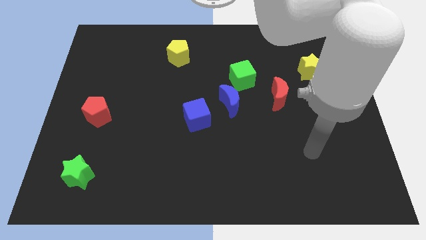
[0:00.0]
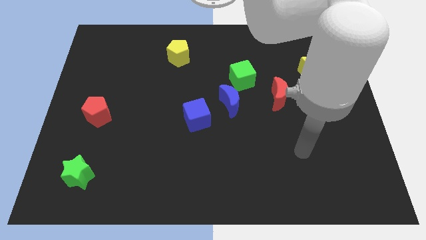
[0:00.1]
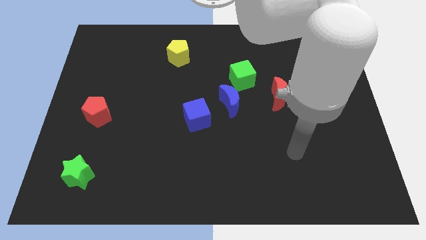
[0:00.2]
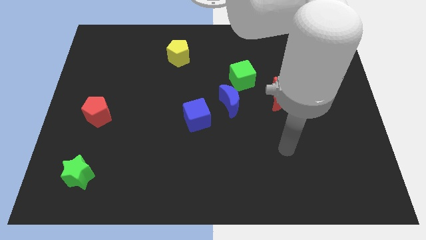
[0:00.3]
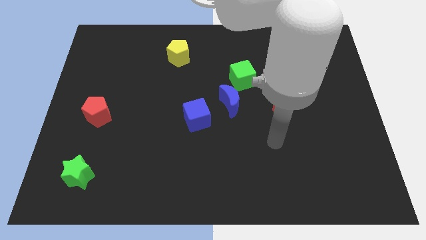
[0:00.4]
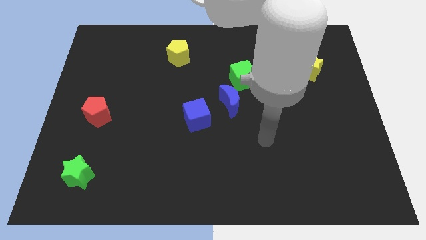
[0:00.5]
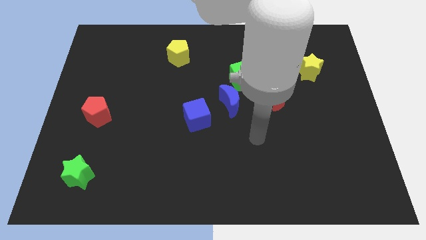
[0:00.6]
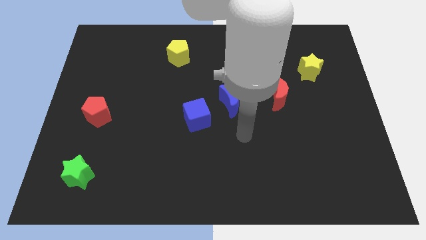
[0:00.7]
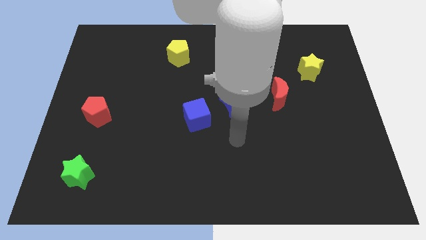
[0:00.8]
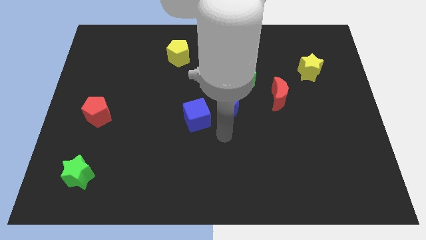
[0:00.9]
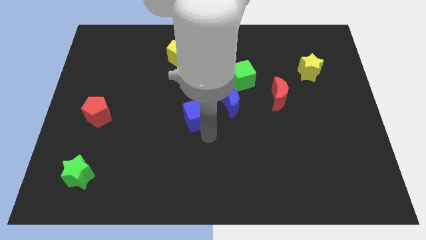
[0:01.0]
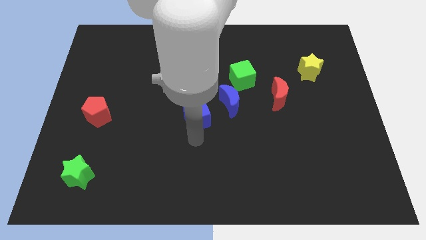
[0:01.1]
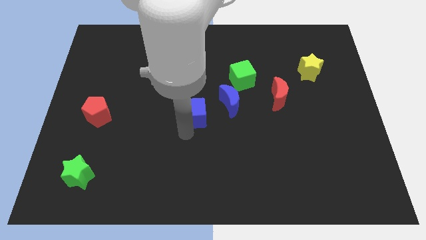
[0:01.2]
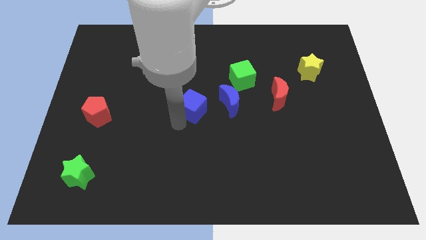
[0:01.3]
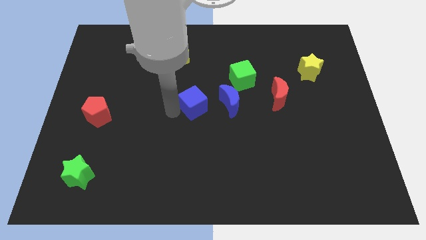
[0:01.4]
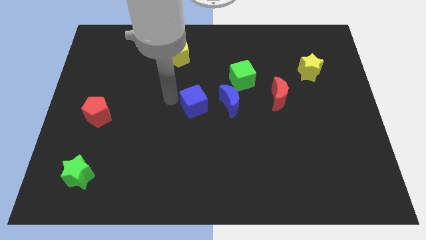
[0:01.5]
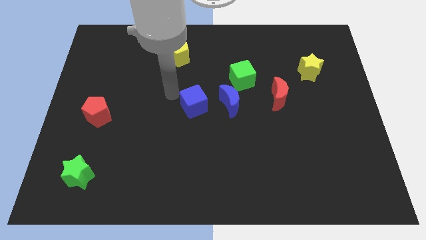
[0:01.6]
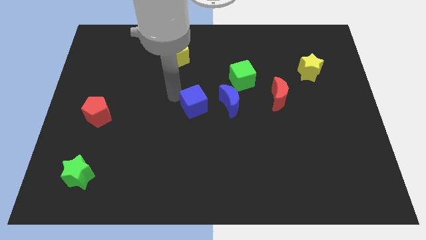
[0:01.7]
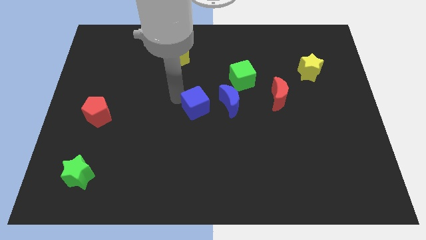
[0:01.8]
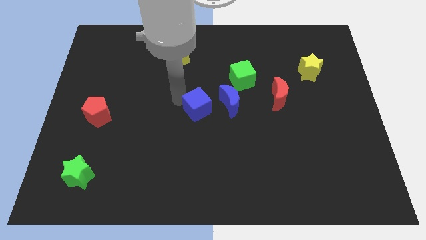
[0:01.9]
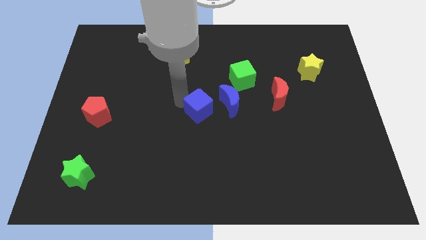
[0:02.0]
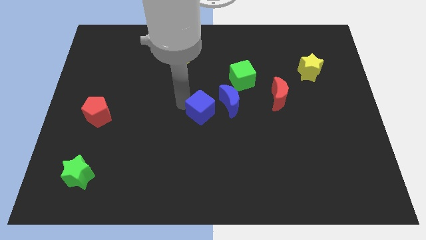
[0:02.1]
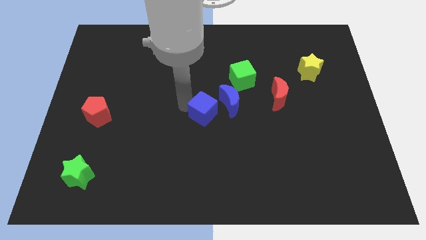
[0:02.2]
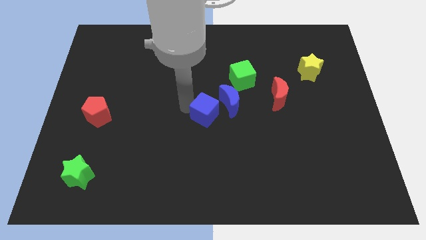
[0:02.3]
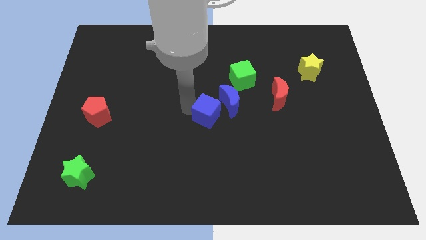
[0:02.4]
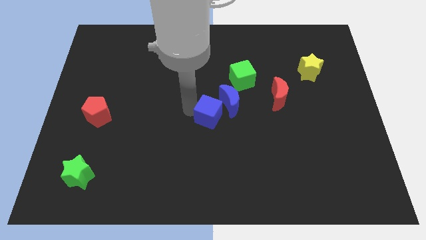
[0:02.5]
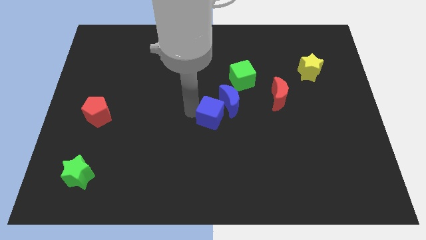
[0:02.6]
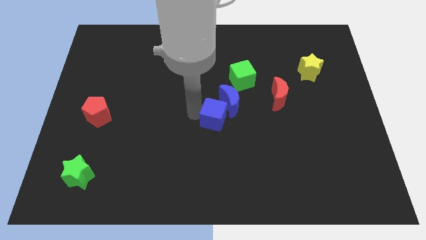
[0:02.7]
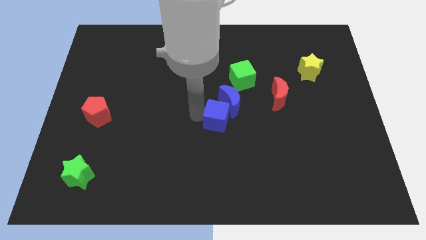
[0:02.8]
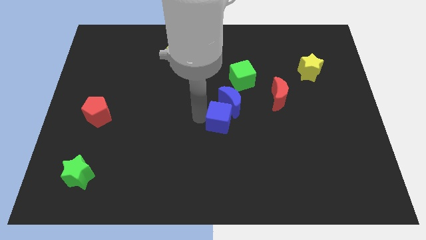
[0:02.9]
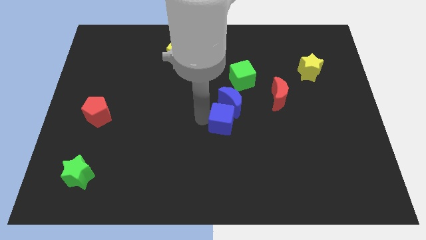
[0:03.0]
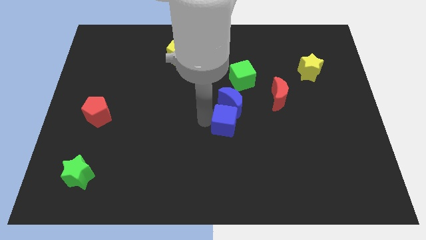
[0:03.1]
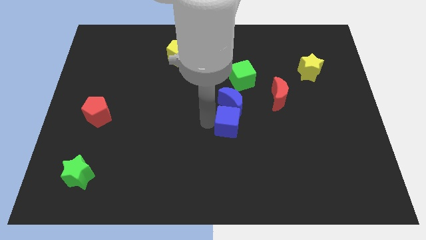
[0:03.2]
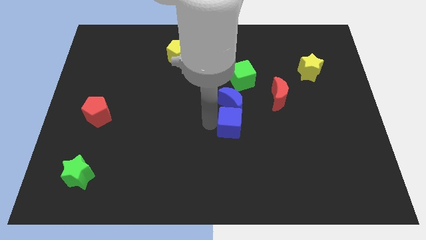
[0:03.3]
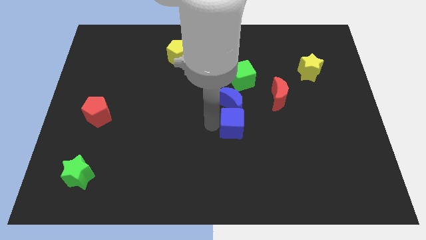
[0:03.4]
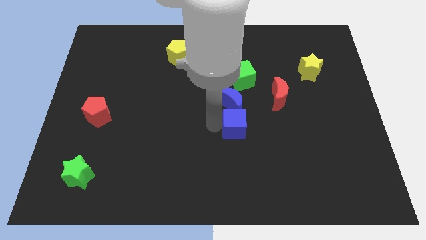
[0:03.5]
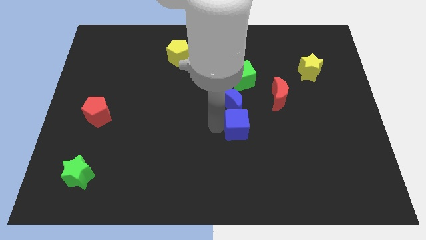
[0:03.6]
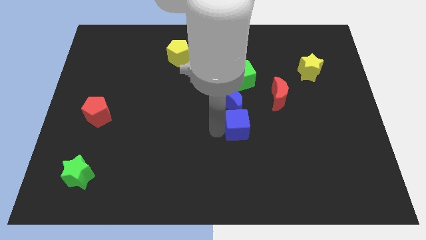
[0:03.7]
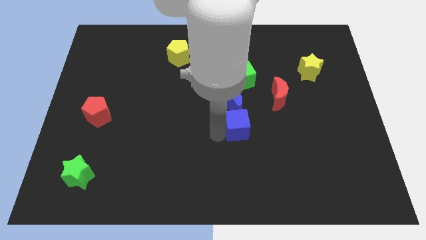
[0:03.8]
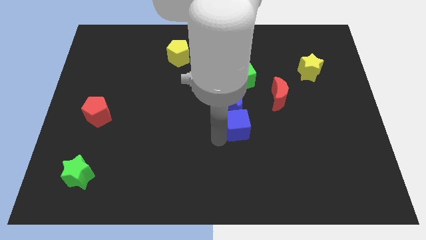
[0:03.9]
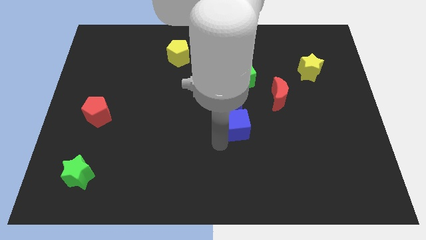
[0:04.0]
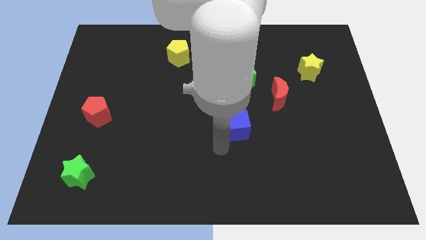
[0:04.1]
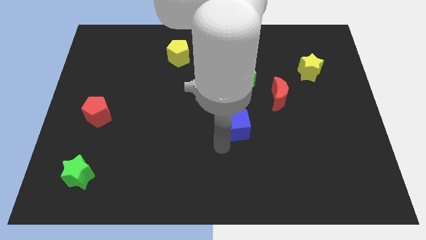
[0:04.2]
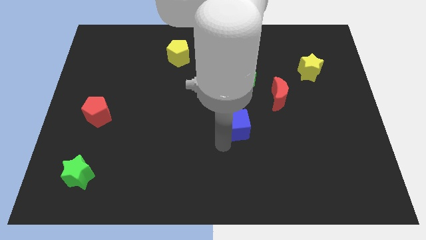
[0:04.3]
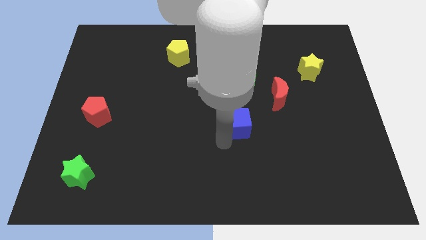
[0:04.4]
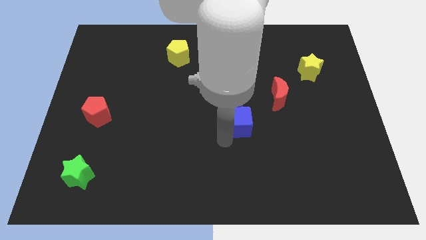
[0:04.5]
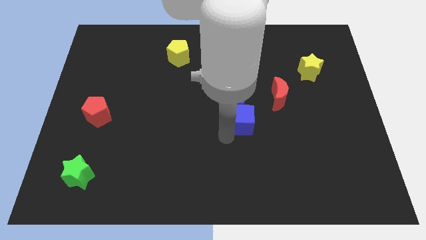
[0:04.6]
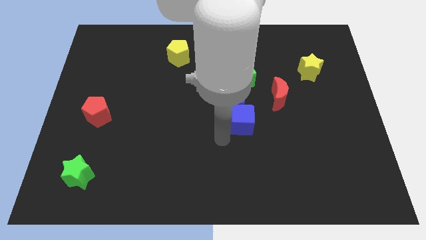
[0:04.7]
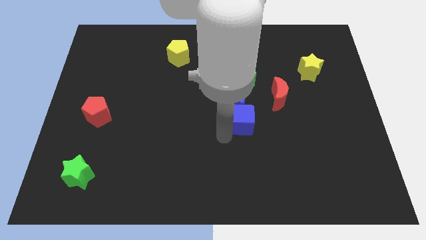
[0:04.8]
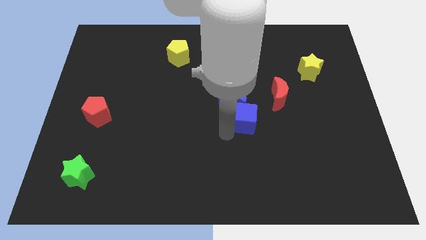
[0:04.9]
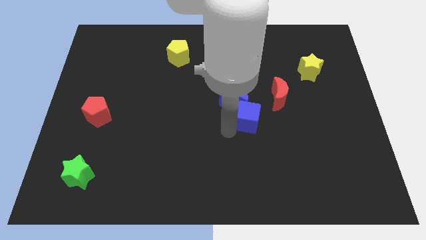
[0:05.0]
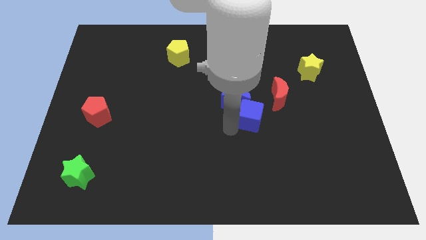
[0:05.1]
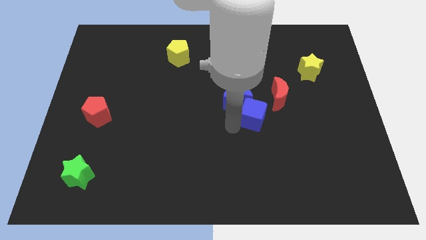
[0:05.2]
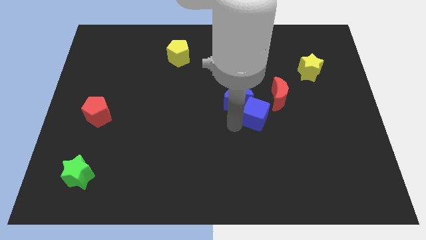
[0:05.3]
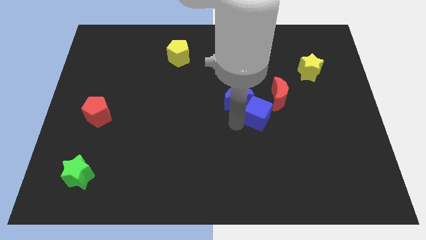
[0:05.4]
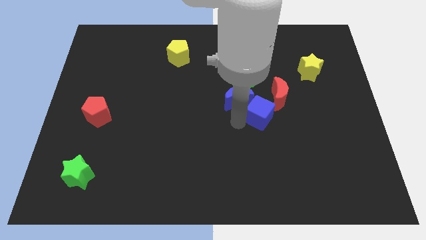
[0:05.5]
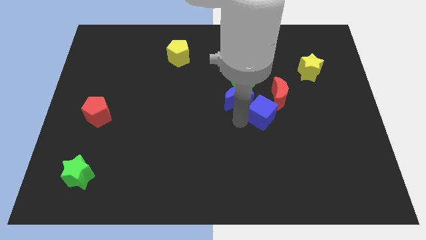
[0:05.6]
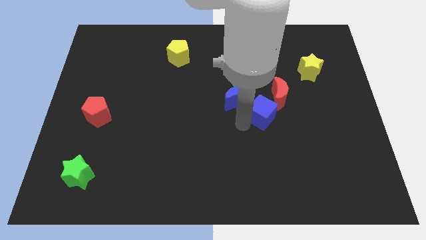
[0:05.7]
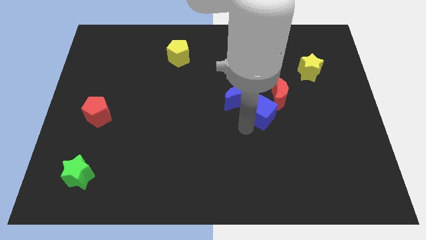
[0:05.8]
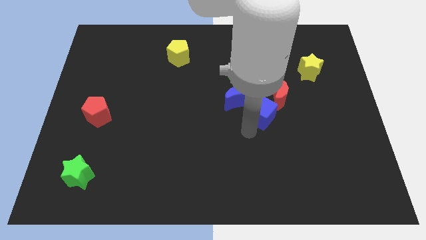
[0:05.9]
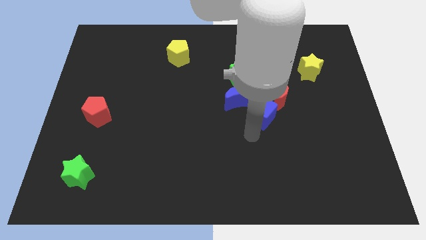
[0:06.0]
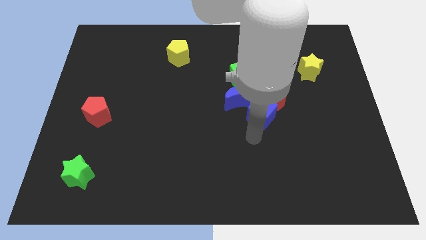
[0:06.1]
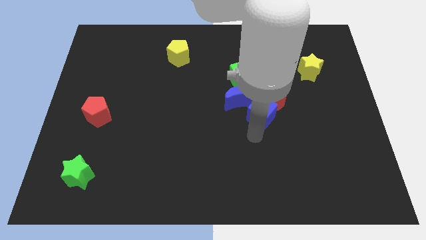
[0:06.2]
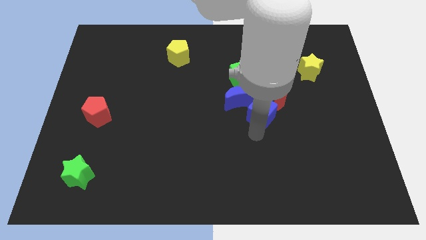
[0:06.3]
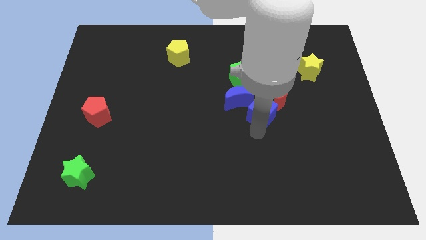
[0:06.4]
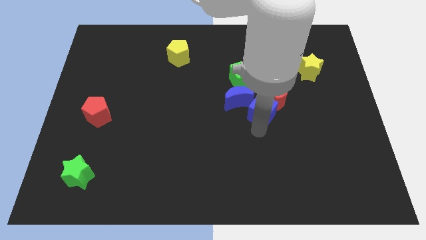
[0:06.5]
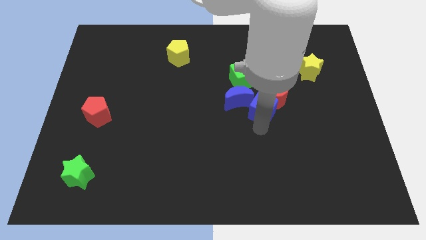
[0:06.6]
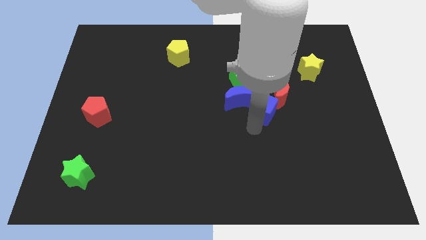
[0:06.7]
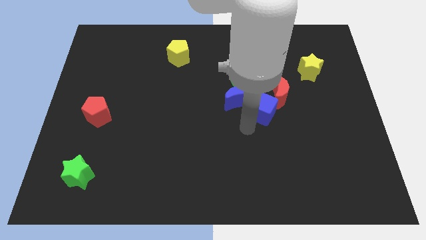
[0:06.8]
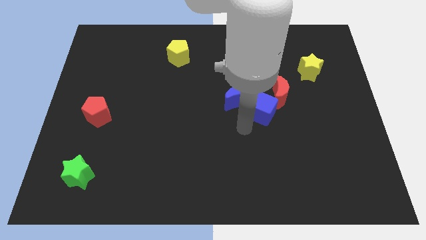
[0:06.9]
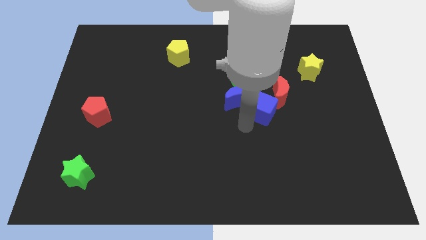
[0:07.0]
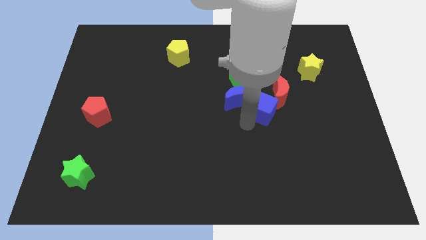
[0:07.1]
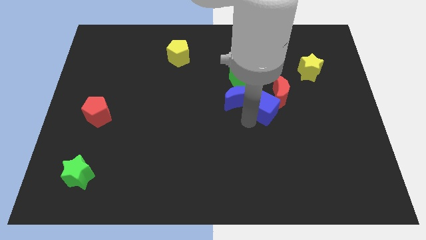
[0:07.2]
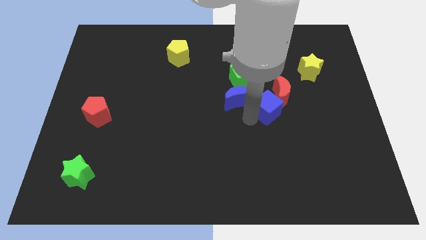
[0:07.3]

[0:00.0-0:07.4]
push the blue cube towards the red moon

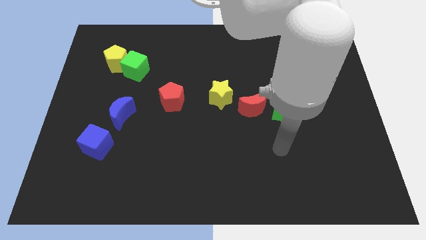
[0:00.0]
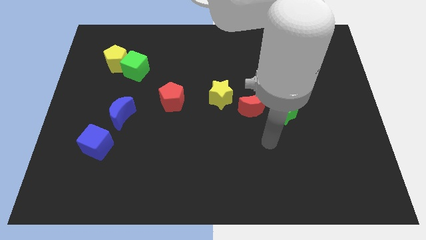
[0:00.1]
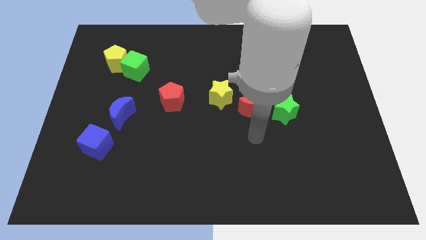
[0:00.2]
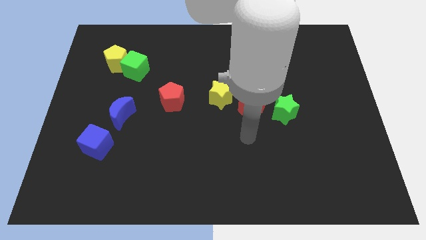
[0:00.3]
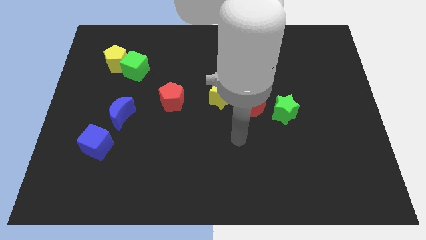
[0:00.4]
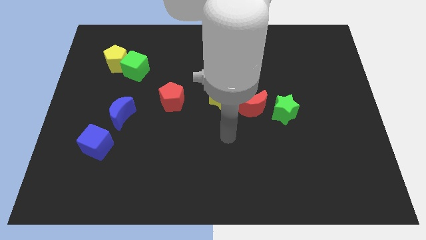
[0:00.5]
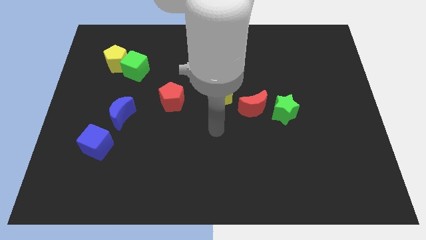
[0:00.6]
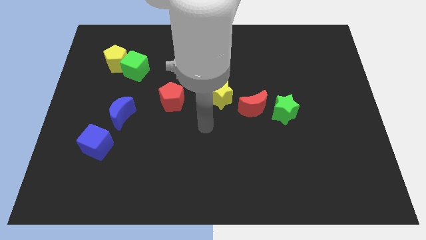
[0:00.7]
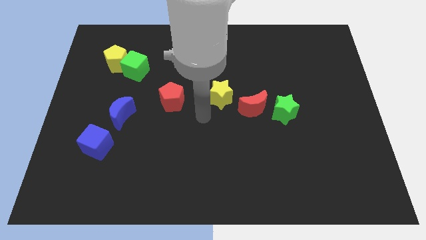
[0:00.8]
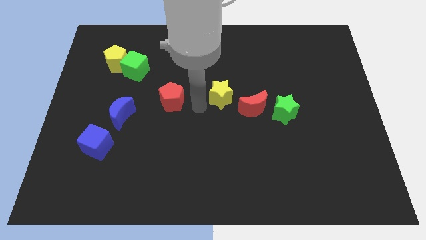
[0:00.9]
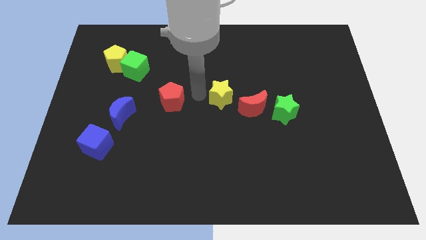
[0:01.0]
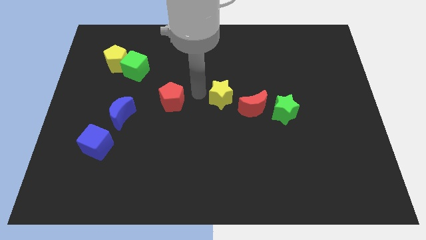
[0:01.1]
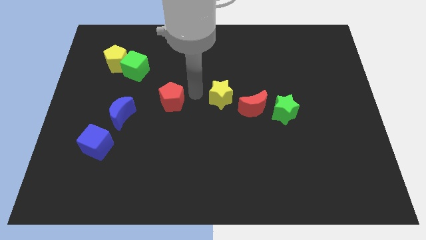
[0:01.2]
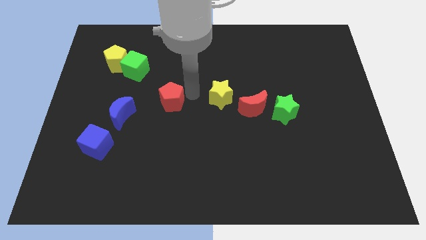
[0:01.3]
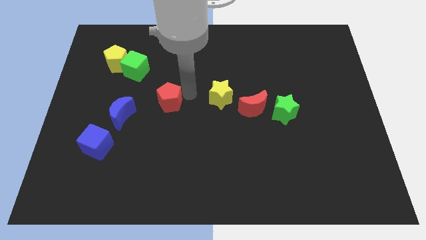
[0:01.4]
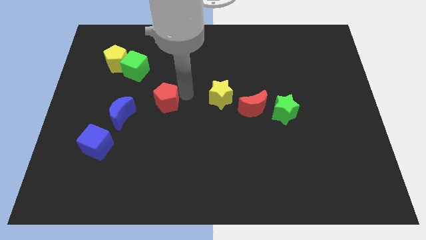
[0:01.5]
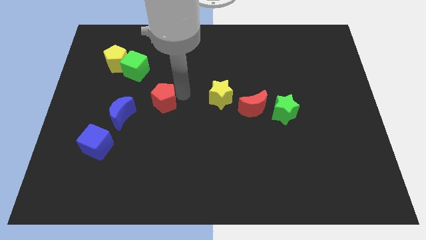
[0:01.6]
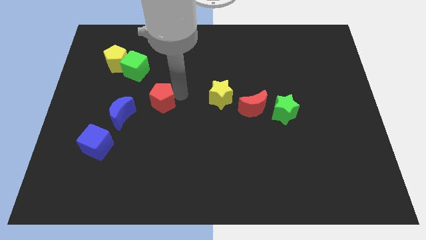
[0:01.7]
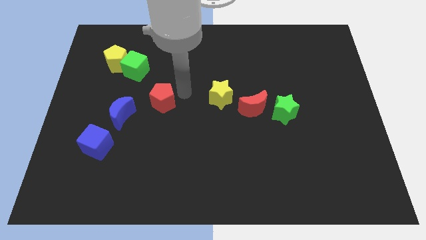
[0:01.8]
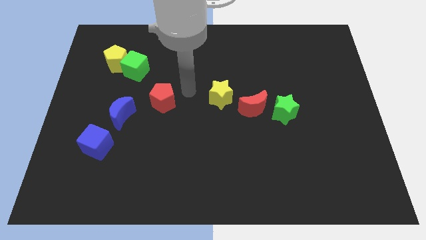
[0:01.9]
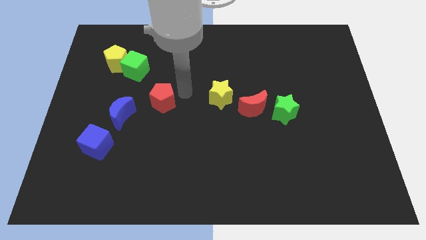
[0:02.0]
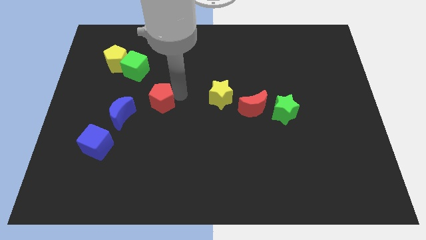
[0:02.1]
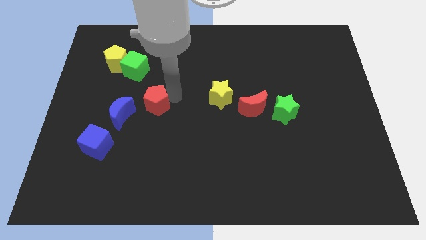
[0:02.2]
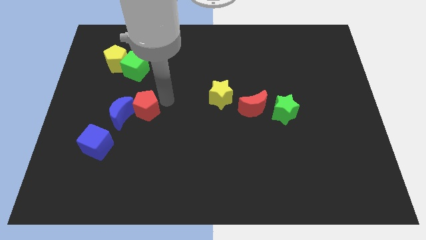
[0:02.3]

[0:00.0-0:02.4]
move the red pentagon to the blue moon
